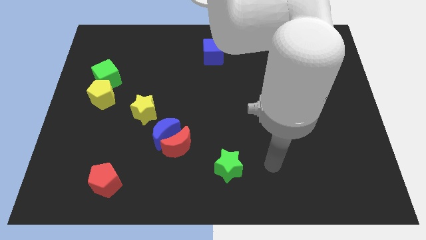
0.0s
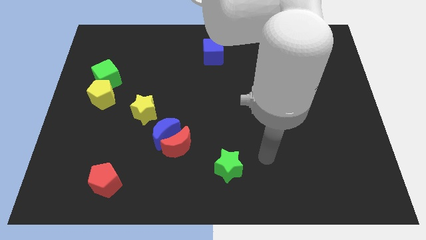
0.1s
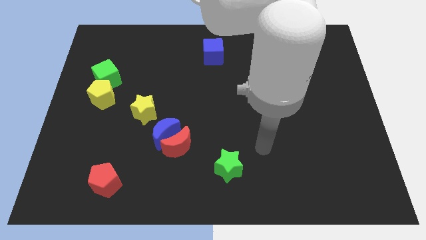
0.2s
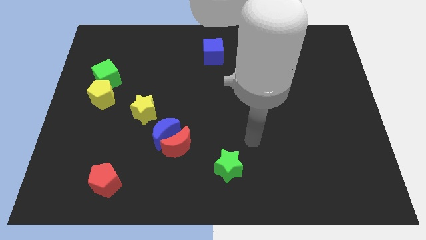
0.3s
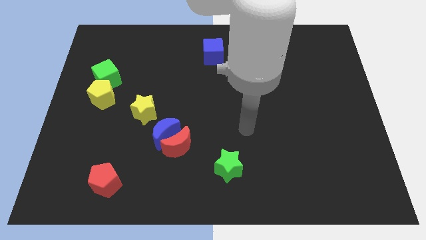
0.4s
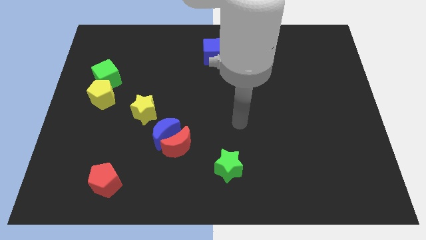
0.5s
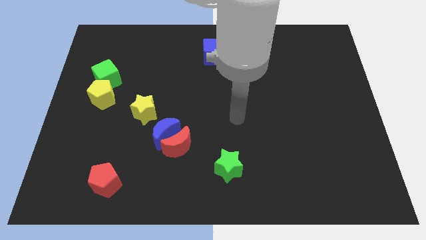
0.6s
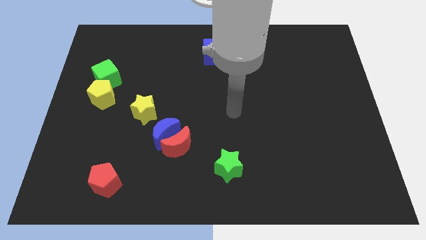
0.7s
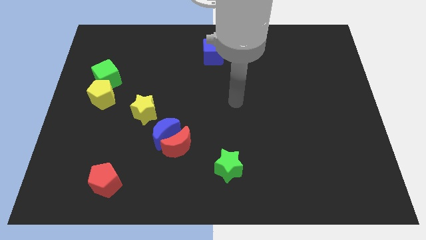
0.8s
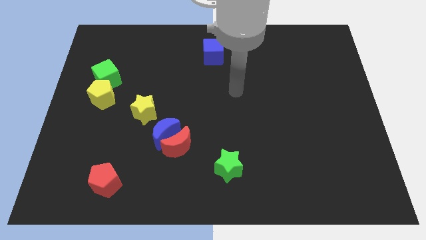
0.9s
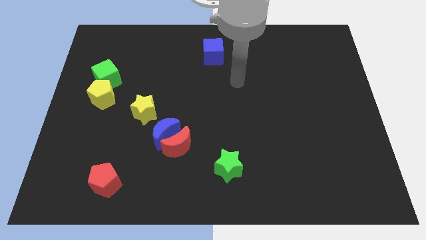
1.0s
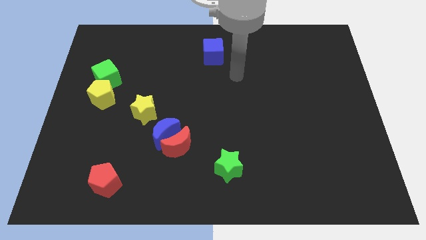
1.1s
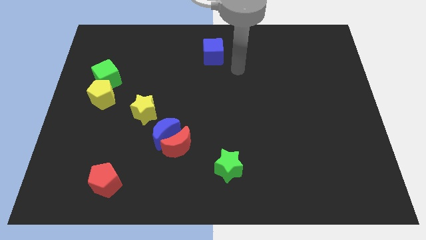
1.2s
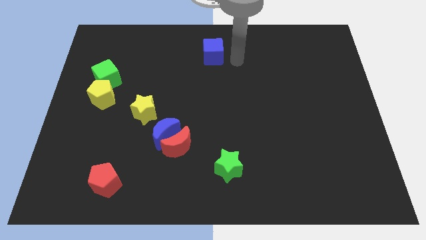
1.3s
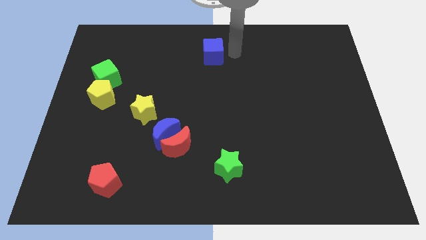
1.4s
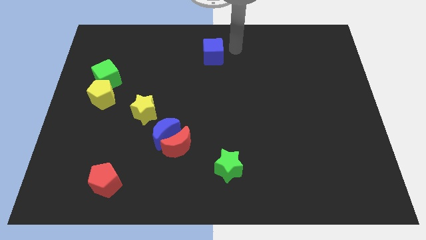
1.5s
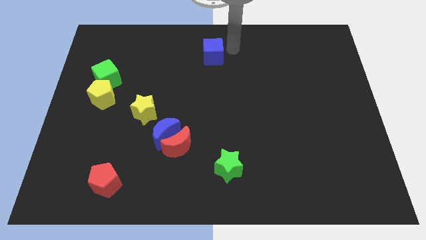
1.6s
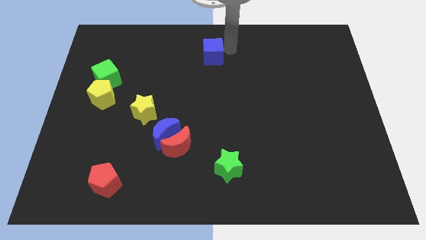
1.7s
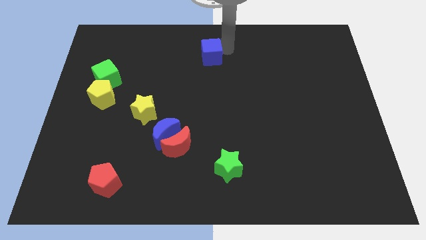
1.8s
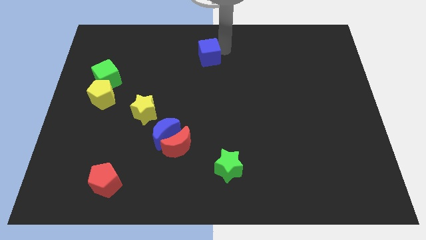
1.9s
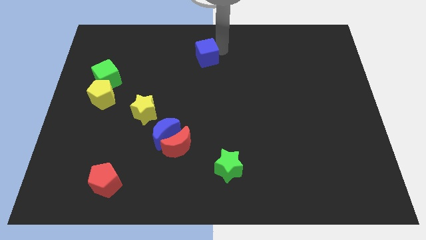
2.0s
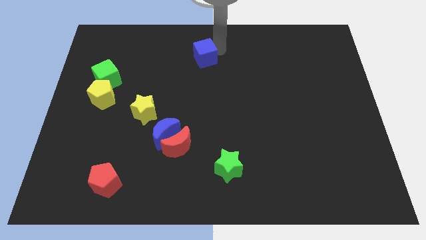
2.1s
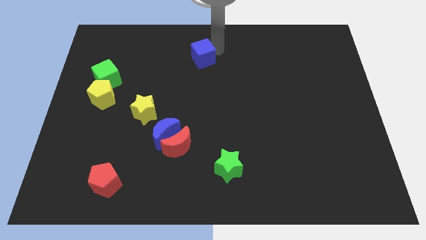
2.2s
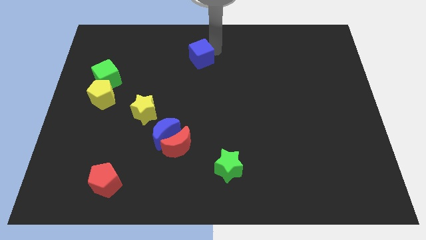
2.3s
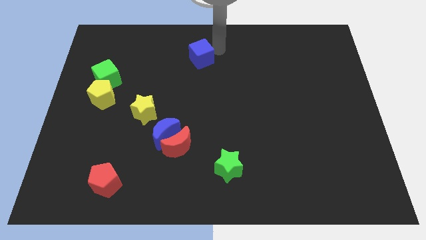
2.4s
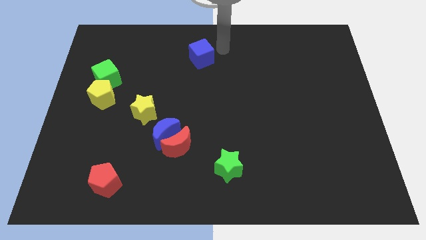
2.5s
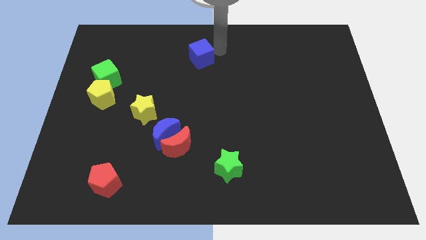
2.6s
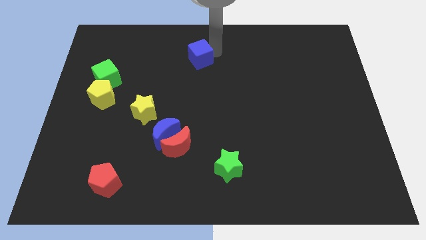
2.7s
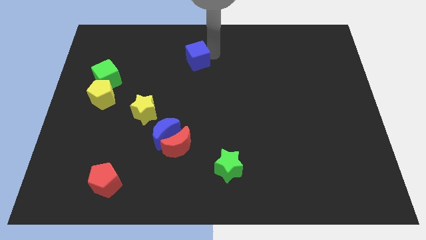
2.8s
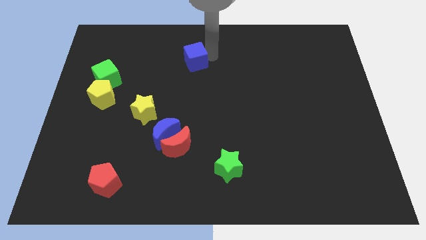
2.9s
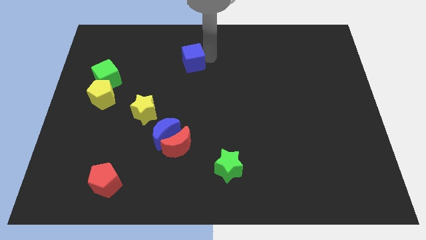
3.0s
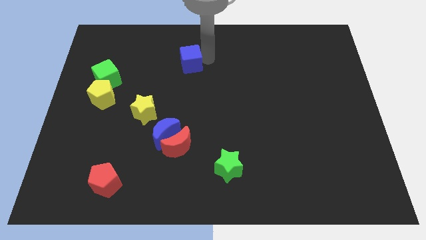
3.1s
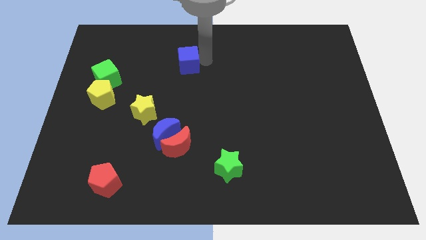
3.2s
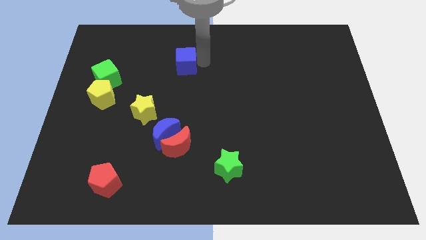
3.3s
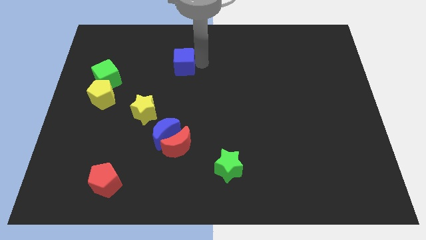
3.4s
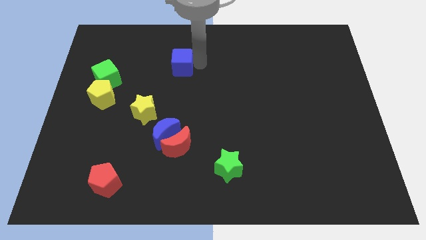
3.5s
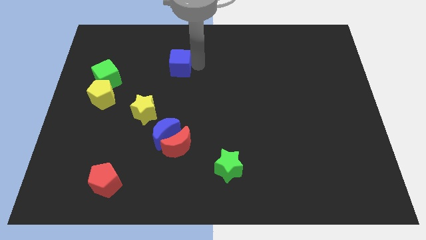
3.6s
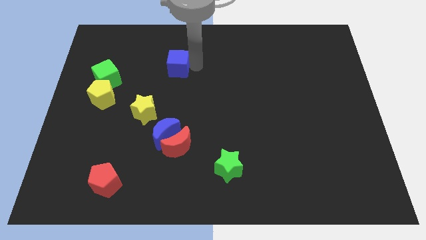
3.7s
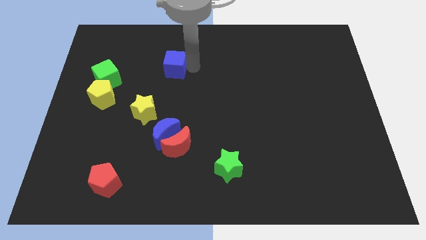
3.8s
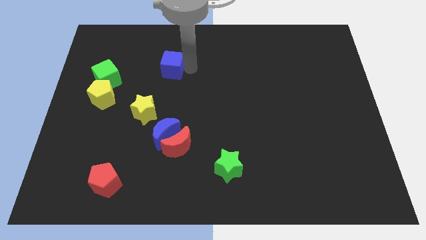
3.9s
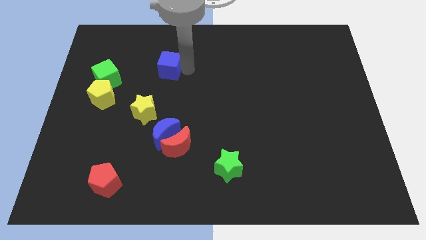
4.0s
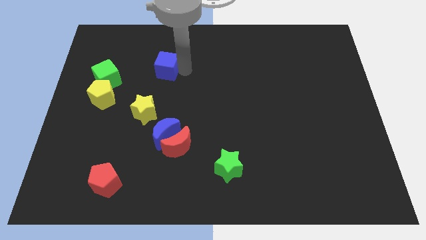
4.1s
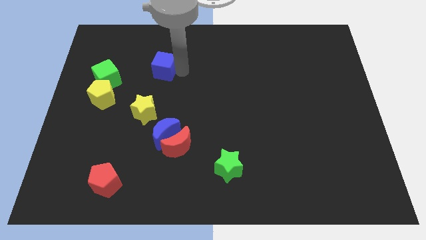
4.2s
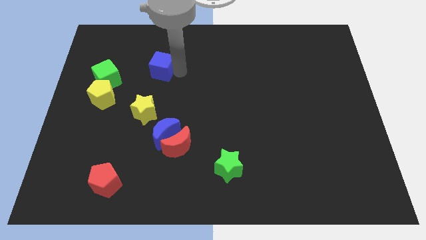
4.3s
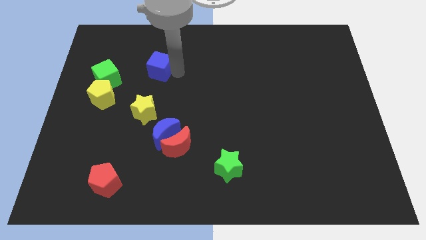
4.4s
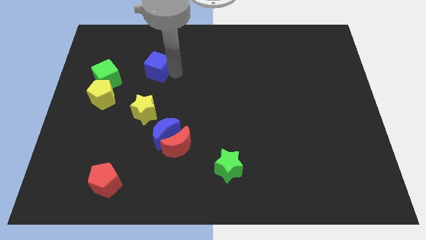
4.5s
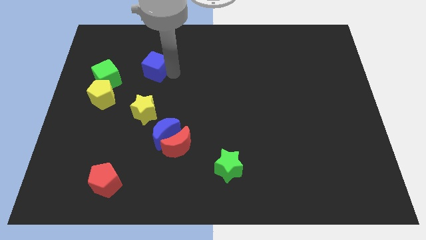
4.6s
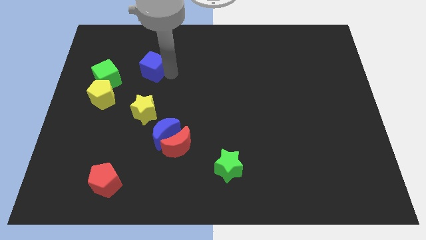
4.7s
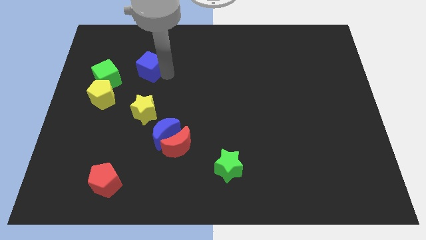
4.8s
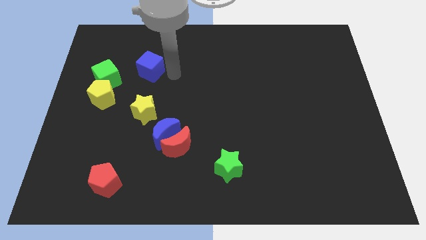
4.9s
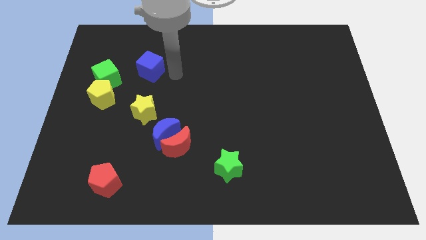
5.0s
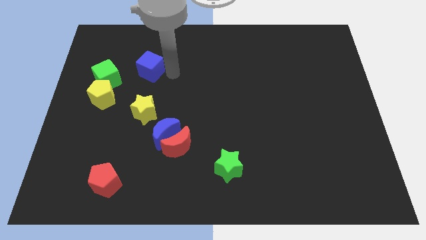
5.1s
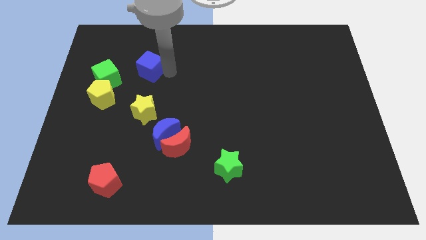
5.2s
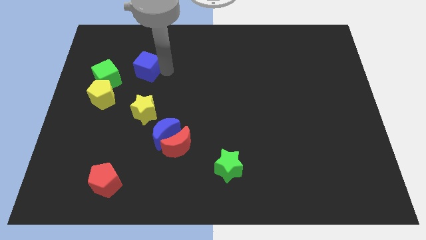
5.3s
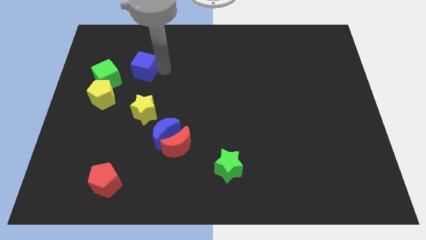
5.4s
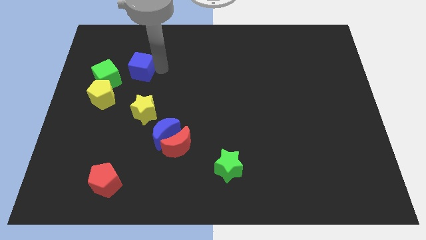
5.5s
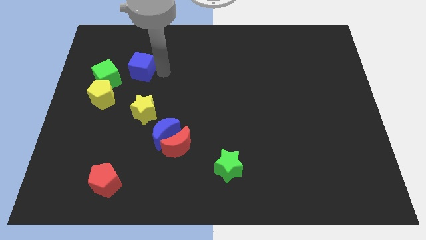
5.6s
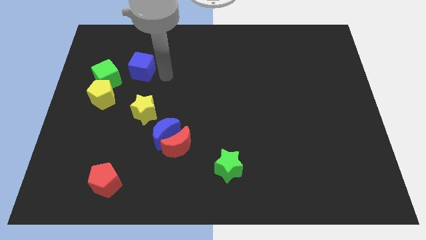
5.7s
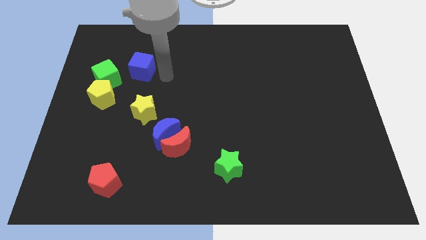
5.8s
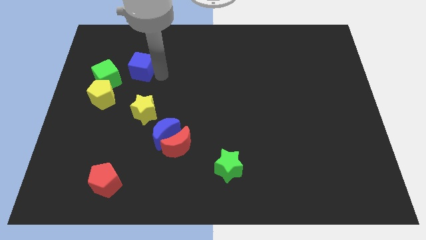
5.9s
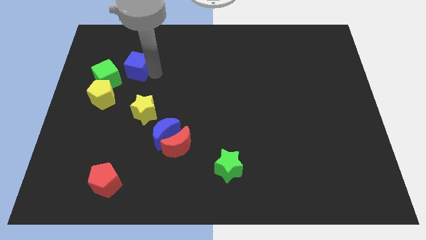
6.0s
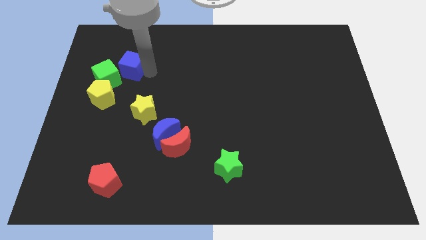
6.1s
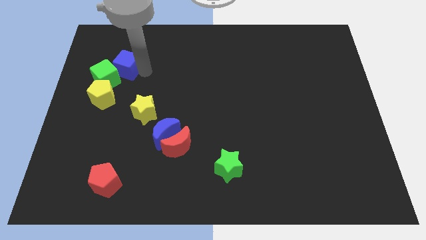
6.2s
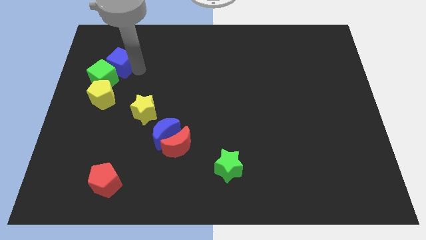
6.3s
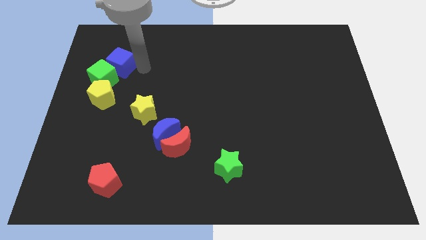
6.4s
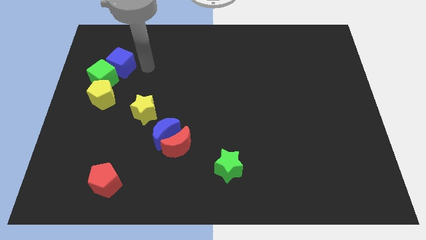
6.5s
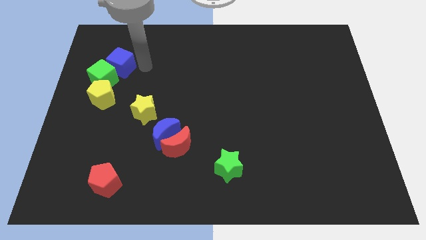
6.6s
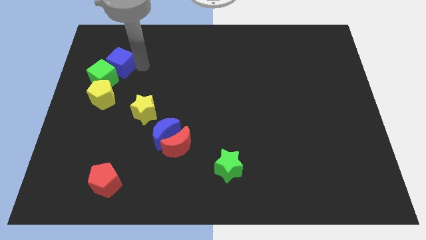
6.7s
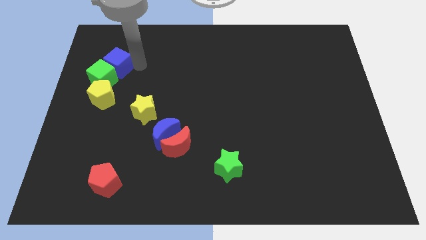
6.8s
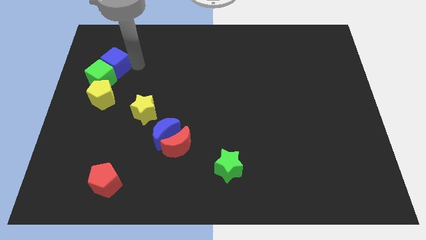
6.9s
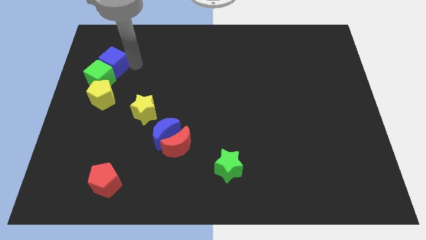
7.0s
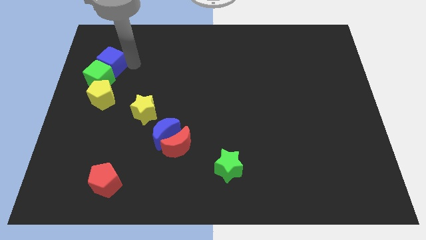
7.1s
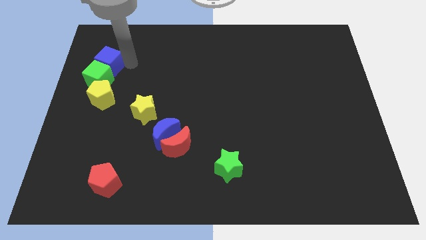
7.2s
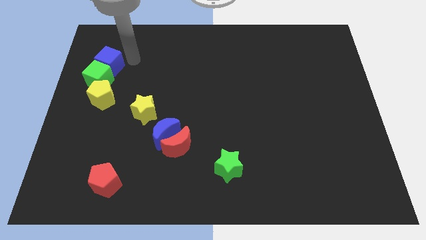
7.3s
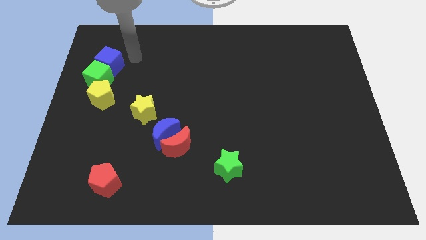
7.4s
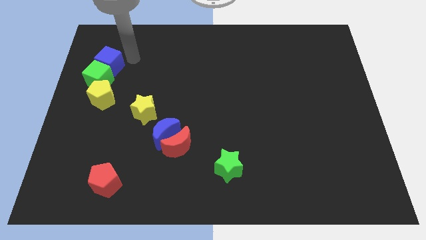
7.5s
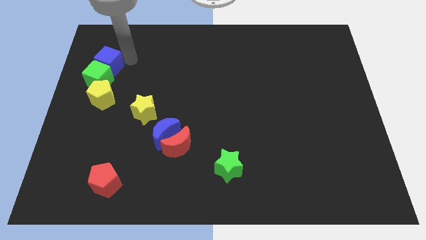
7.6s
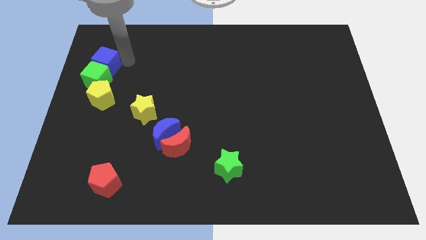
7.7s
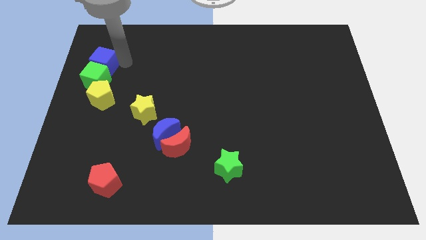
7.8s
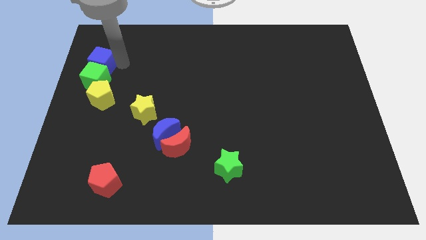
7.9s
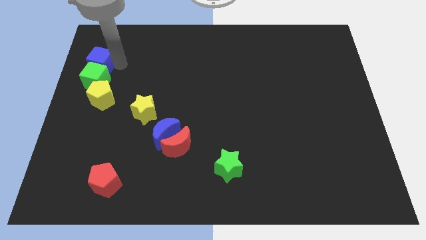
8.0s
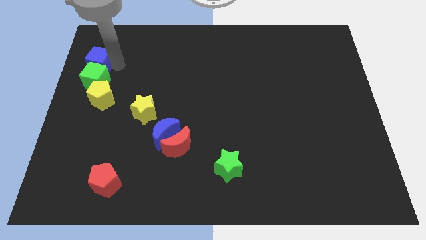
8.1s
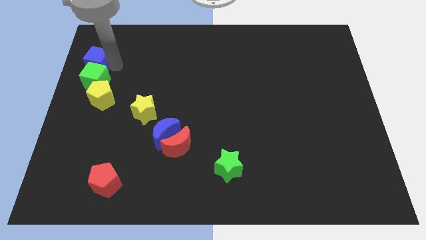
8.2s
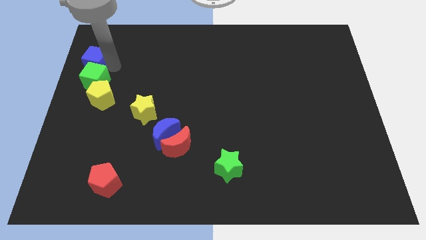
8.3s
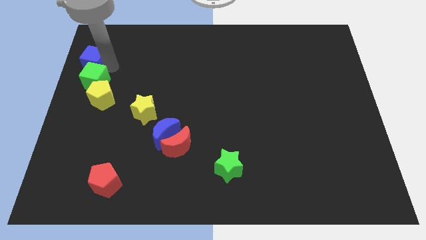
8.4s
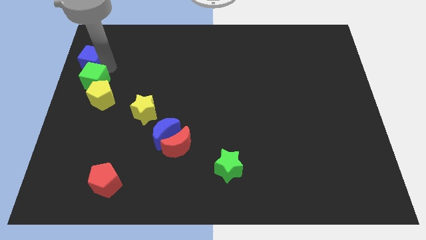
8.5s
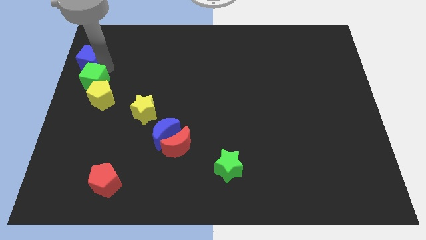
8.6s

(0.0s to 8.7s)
push the blue cube to the left side
